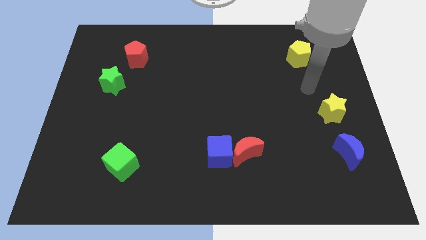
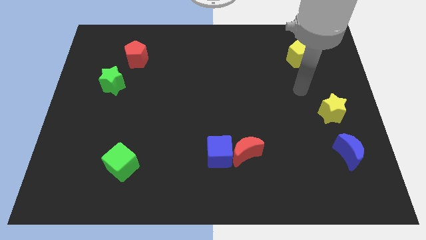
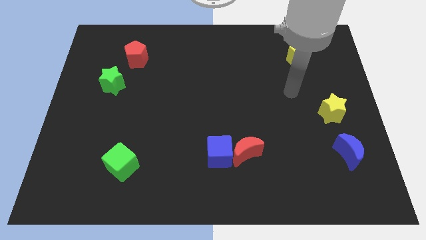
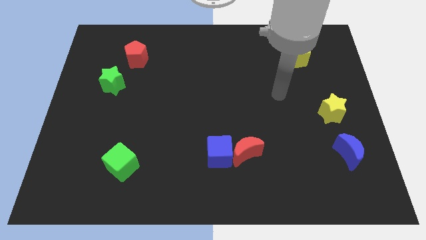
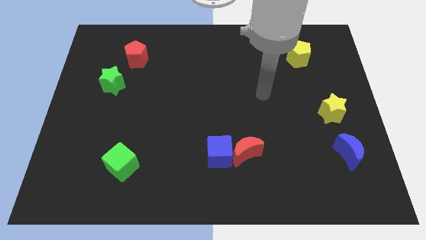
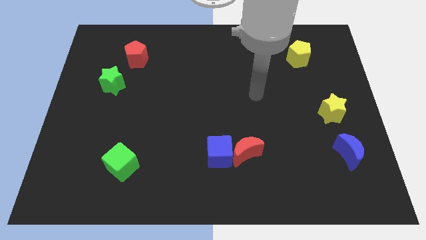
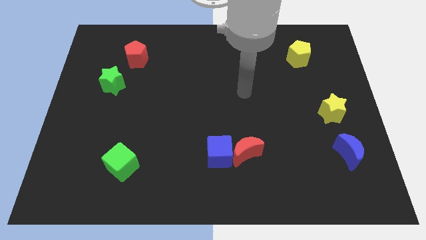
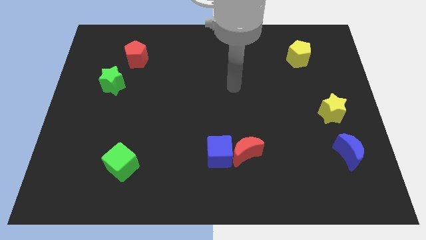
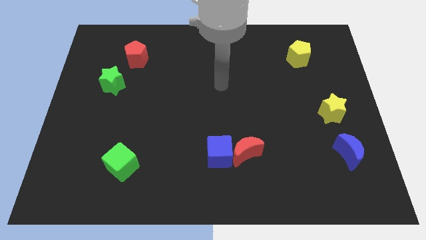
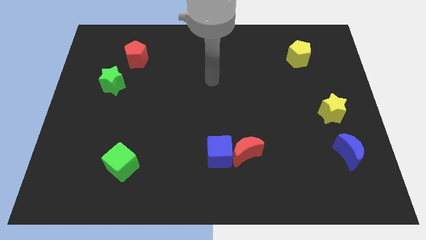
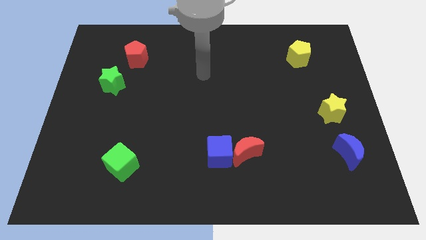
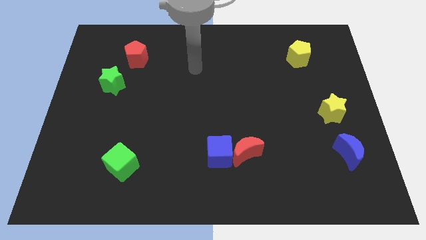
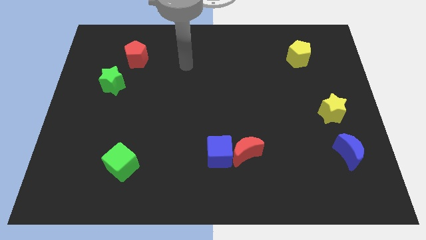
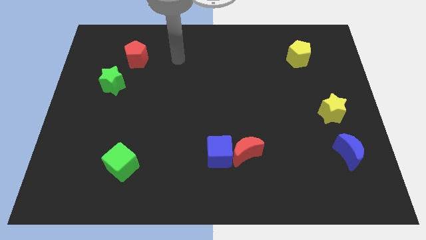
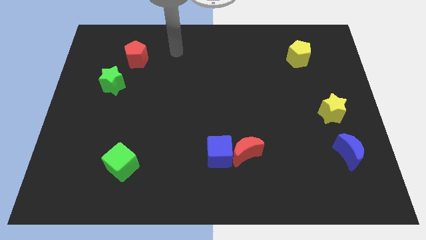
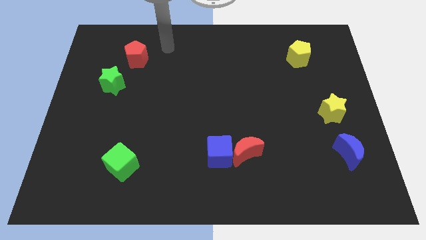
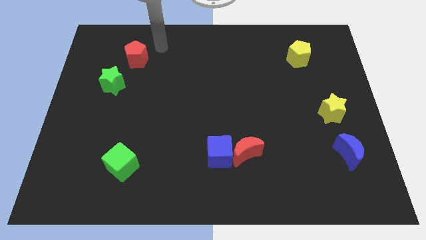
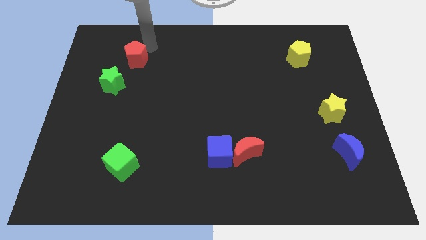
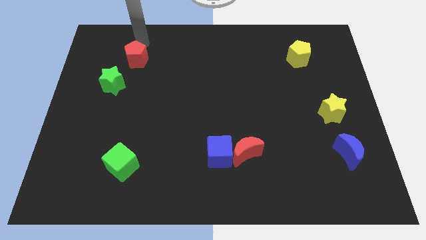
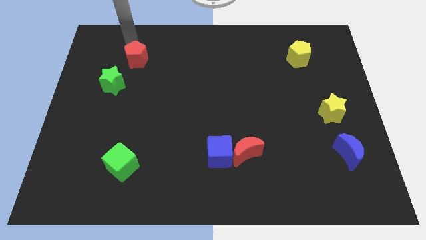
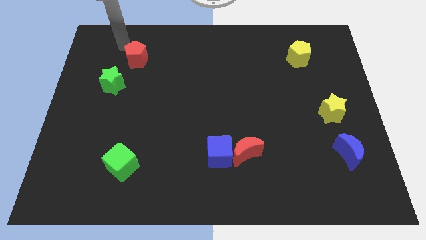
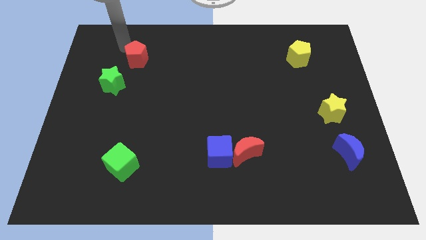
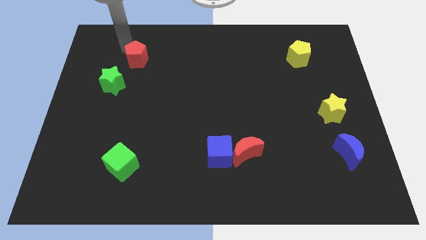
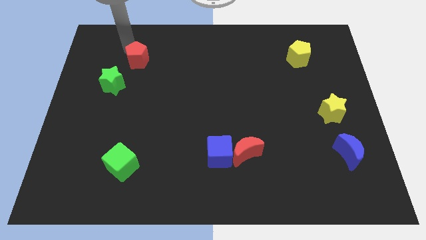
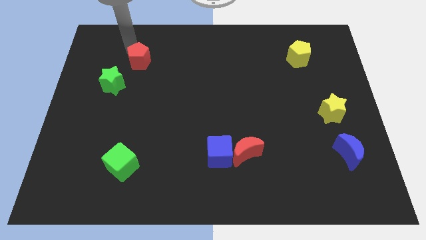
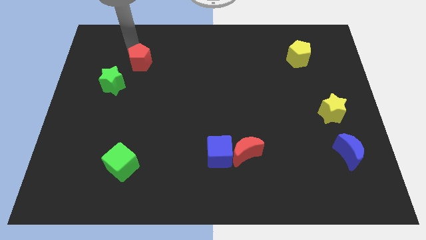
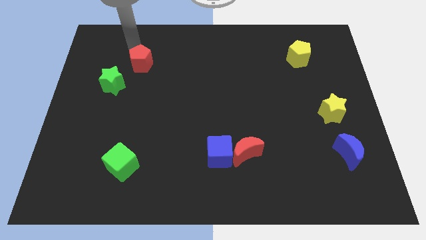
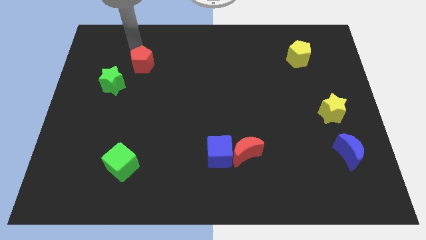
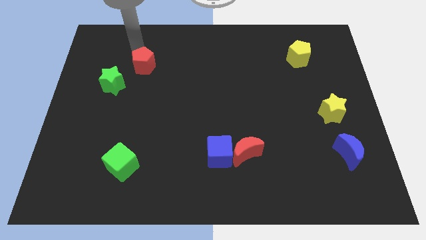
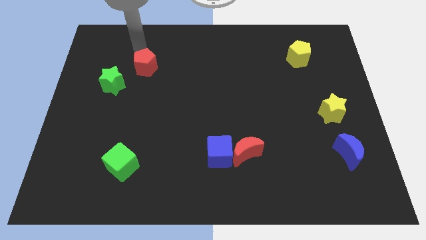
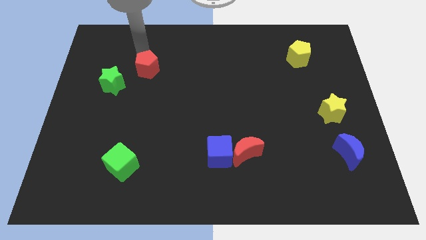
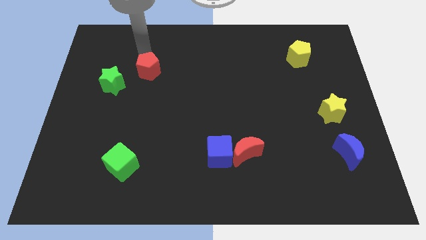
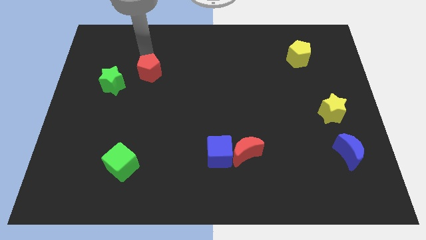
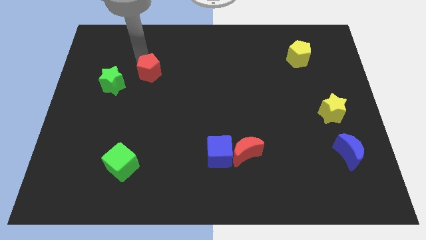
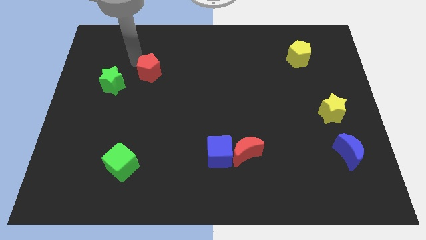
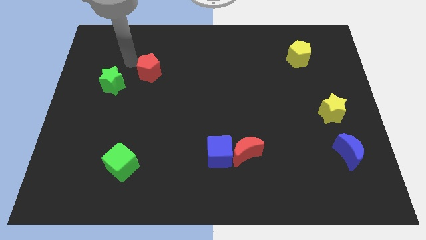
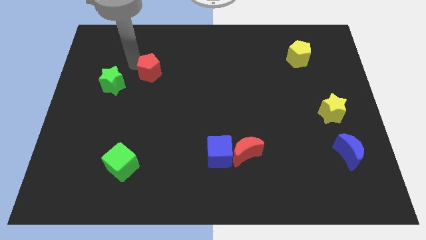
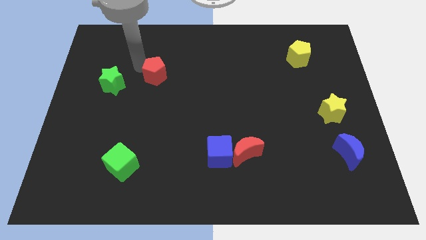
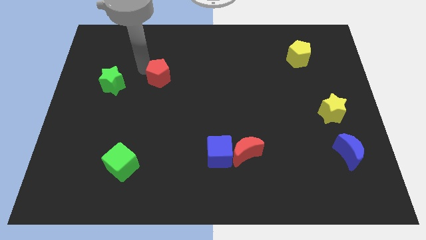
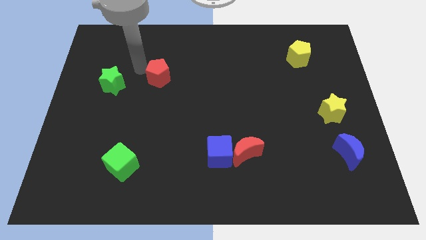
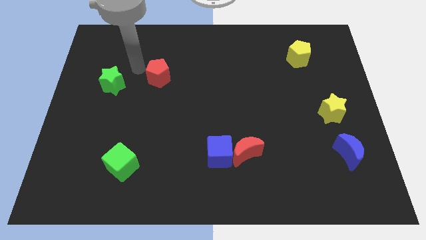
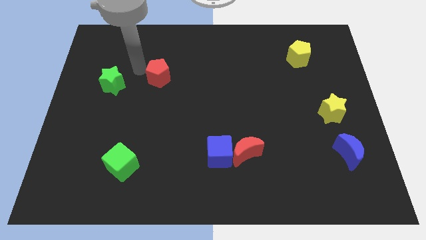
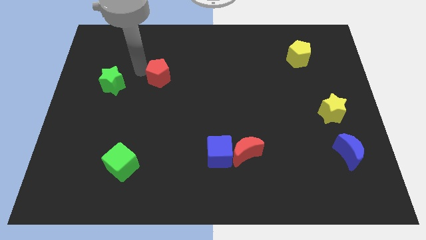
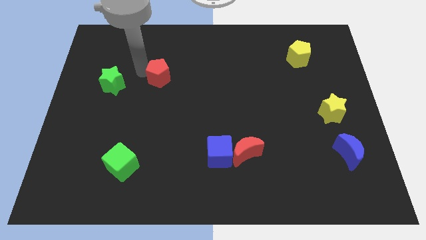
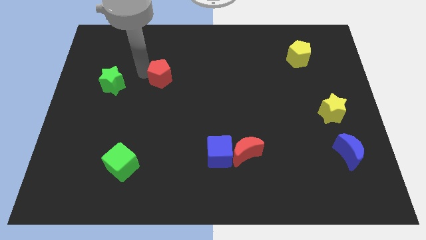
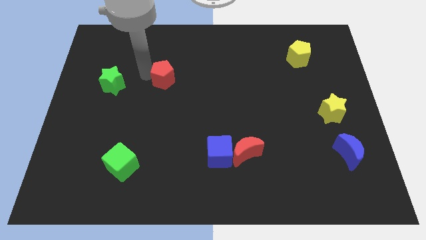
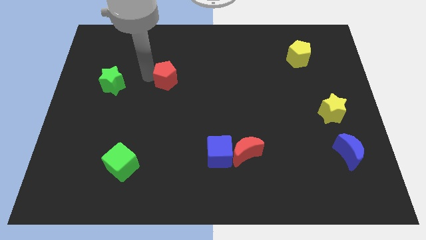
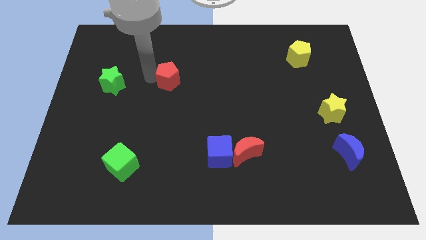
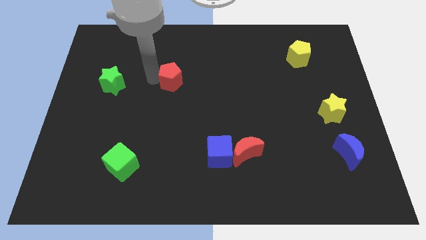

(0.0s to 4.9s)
push the red pentagon to the center

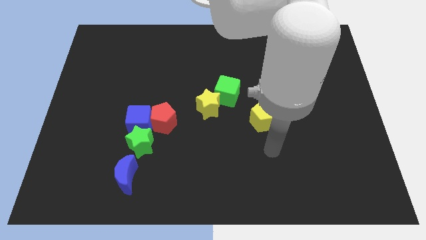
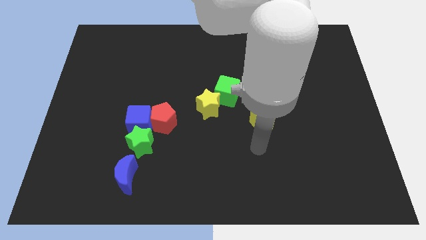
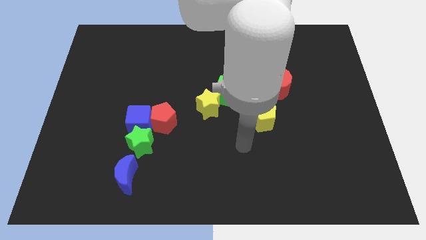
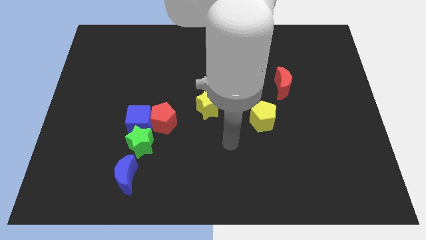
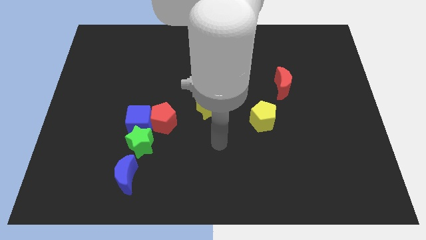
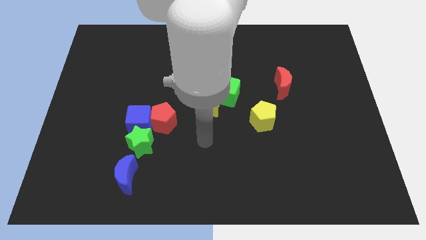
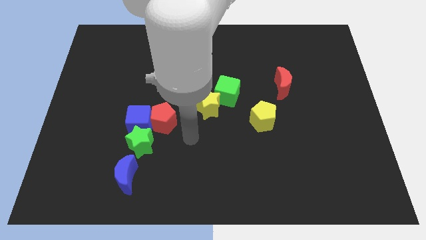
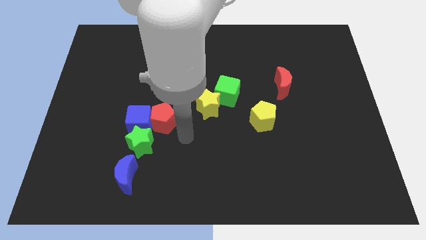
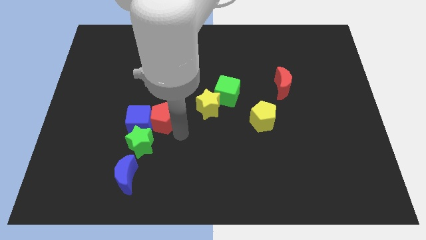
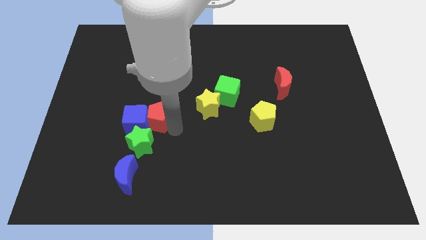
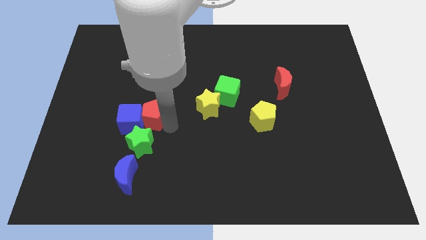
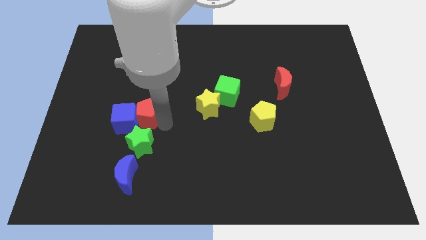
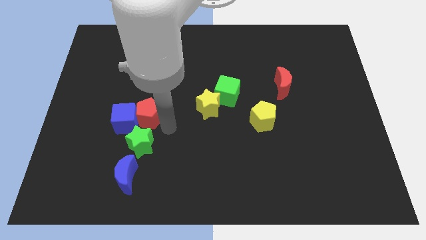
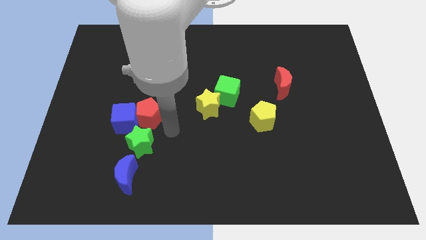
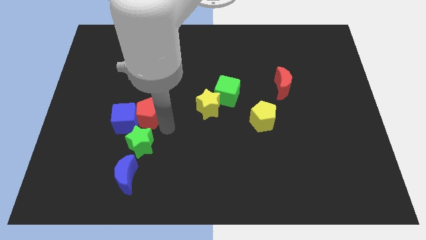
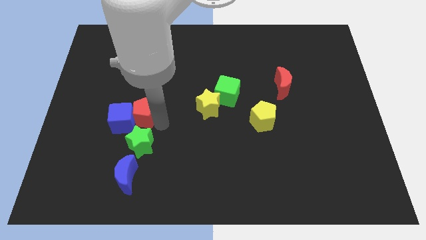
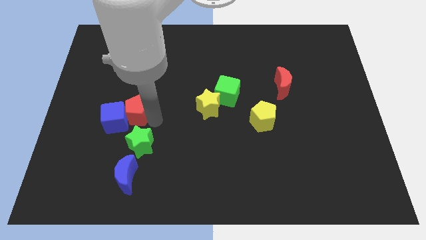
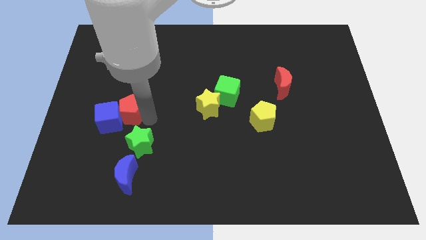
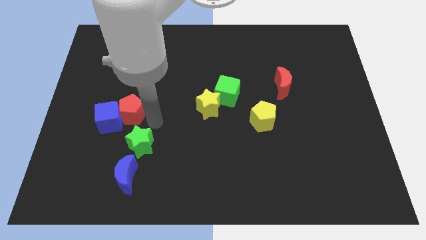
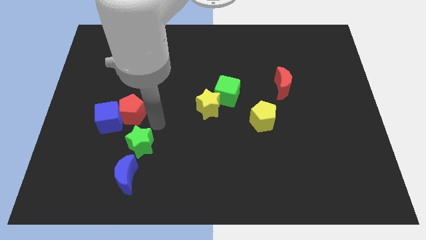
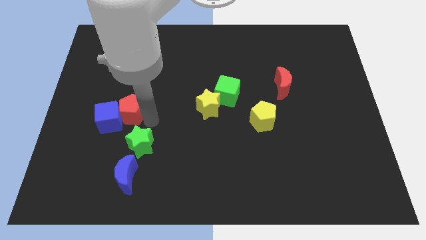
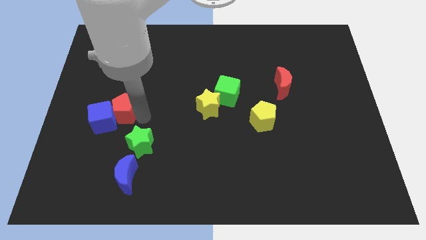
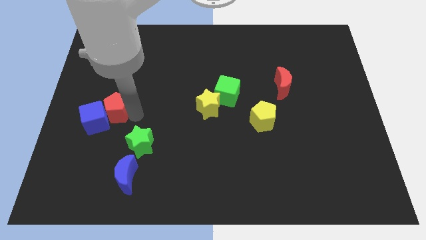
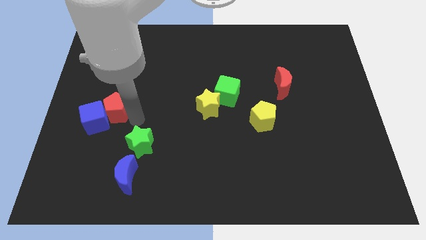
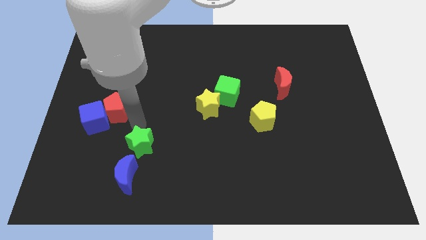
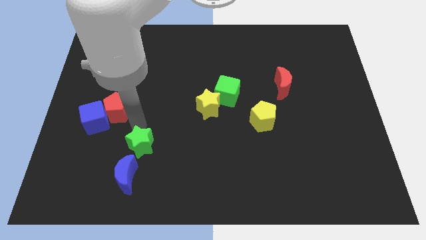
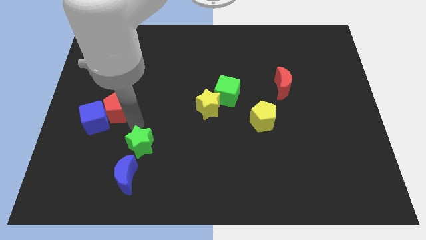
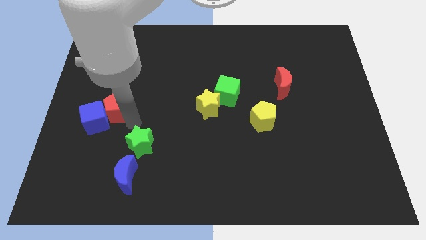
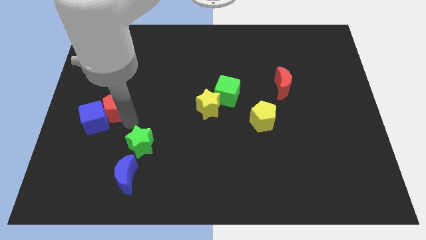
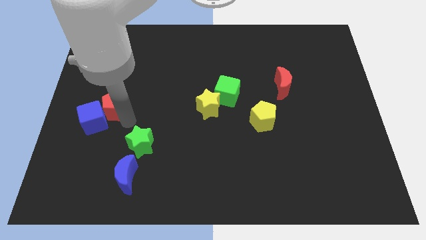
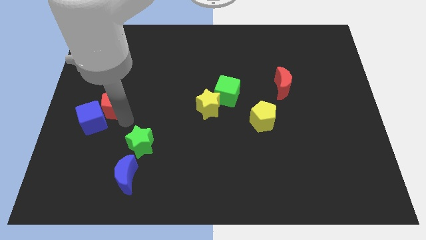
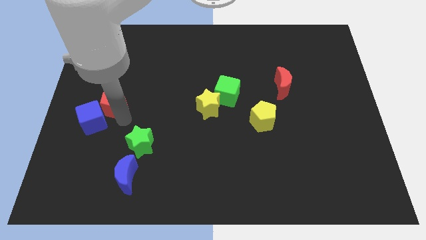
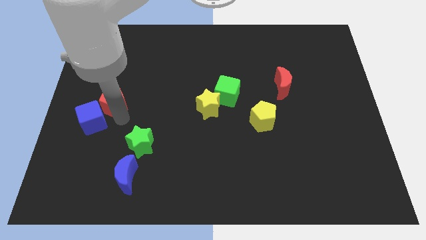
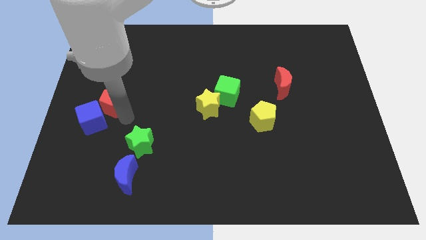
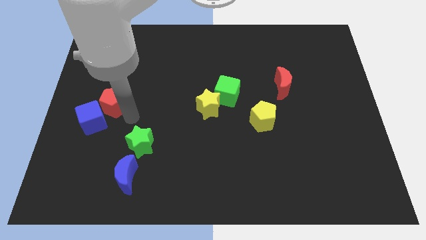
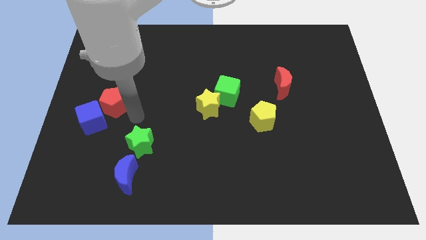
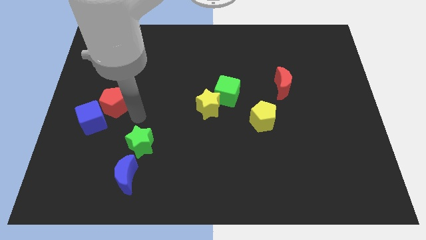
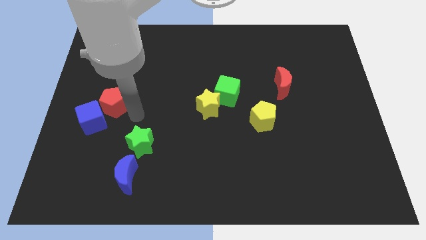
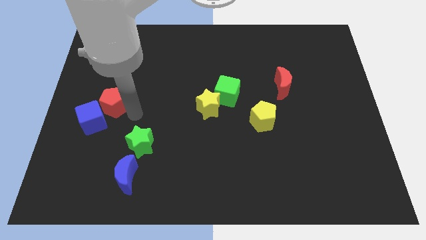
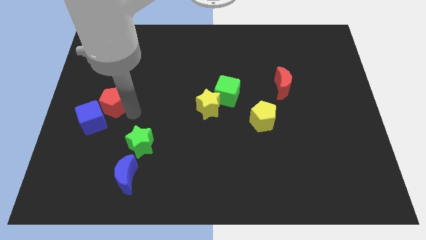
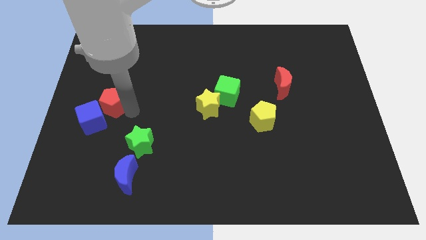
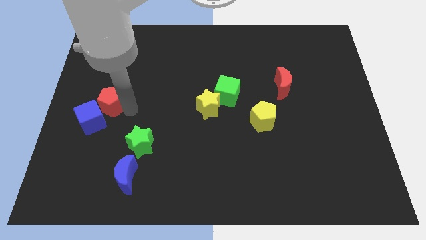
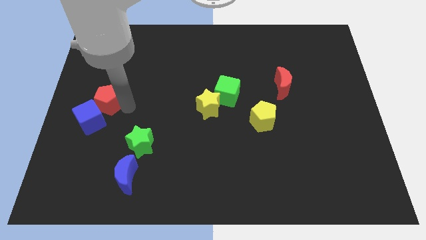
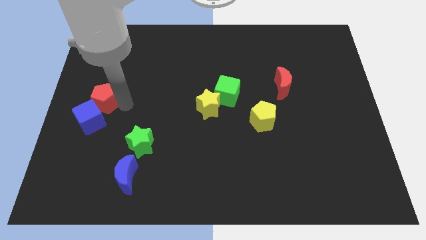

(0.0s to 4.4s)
move the red pentagon to the center left
